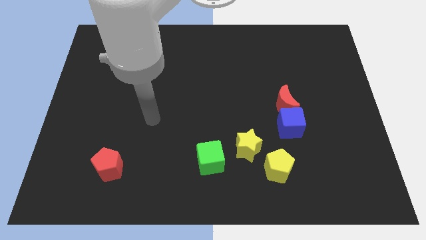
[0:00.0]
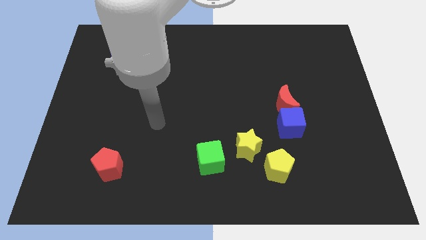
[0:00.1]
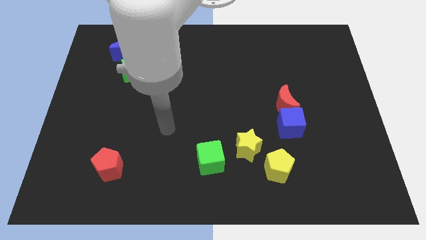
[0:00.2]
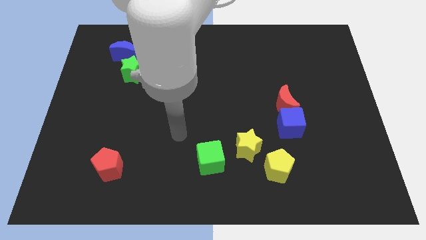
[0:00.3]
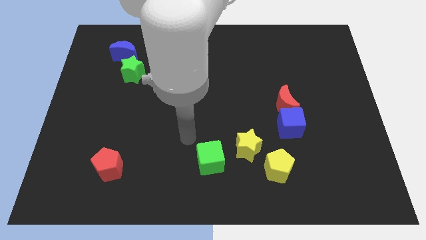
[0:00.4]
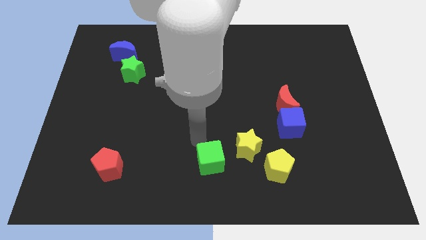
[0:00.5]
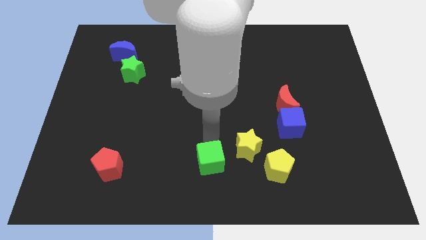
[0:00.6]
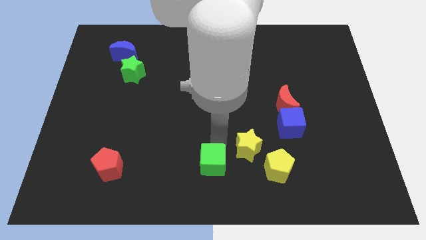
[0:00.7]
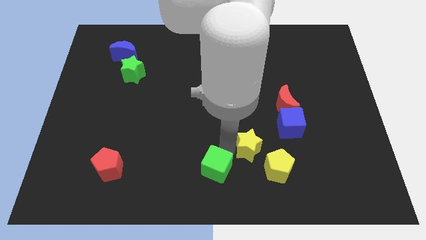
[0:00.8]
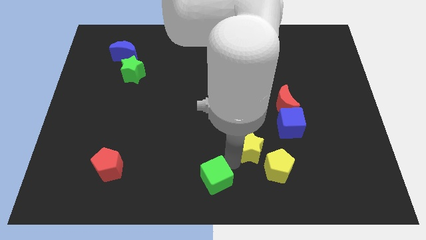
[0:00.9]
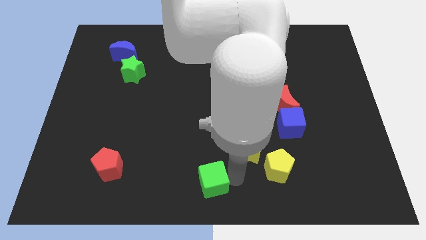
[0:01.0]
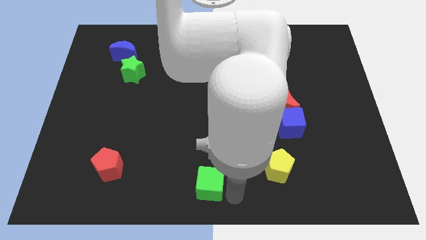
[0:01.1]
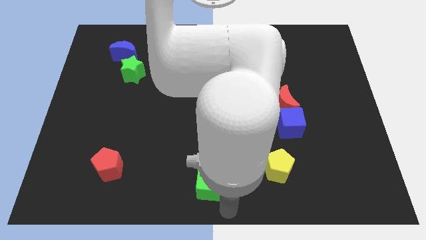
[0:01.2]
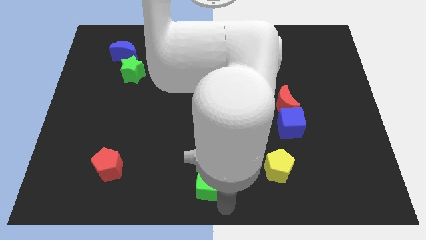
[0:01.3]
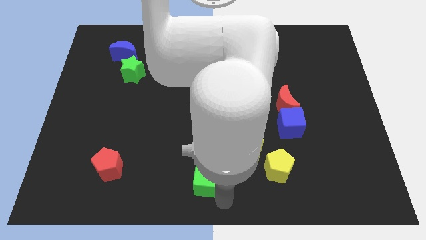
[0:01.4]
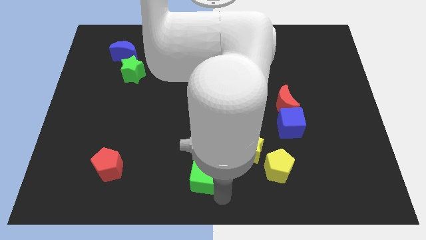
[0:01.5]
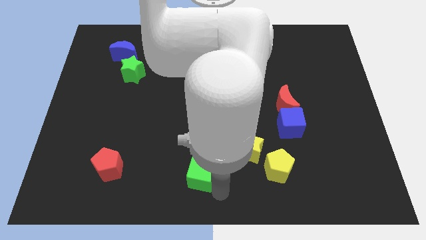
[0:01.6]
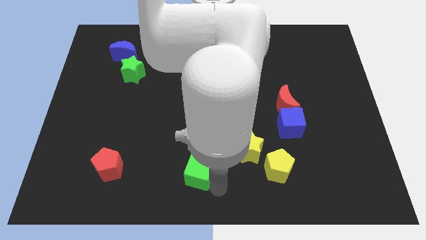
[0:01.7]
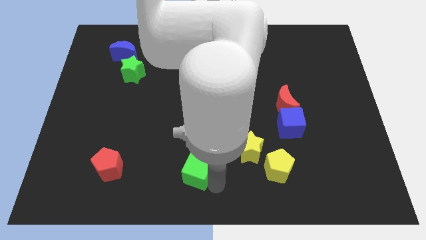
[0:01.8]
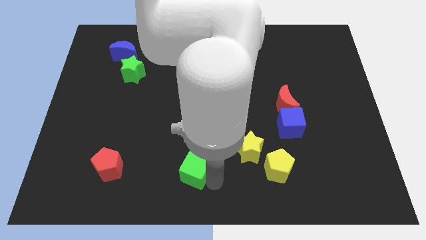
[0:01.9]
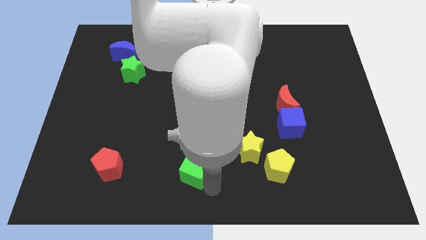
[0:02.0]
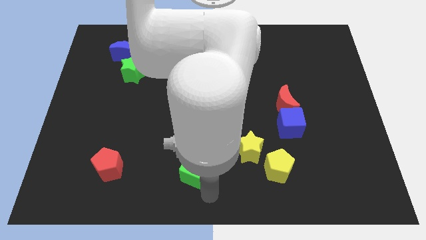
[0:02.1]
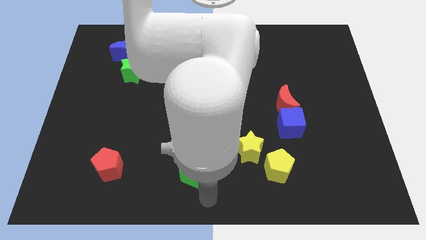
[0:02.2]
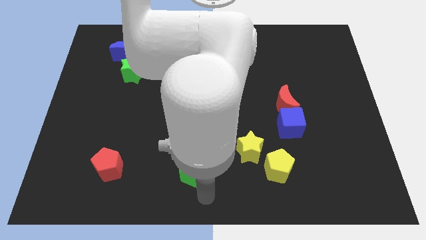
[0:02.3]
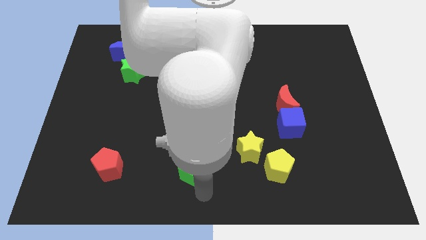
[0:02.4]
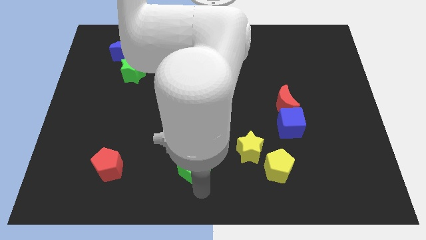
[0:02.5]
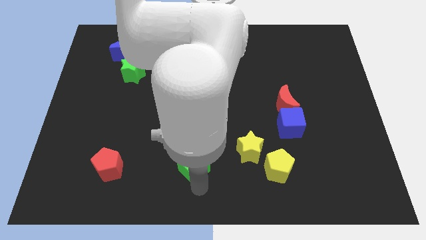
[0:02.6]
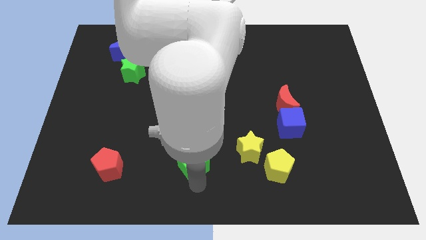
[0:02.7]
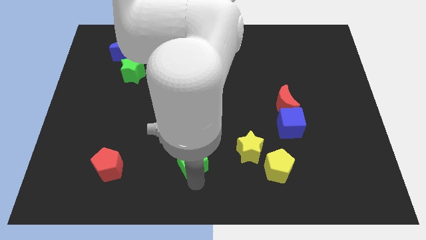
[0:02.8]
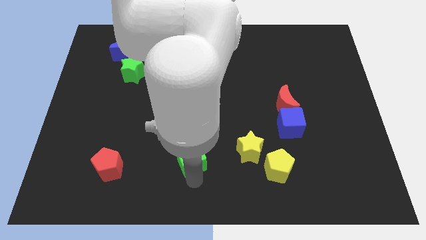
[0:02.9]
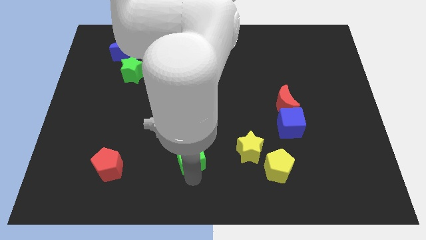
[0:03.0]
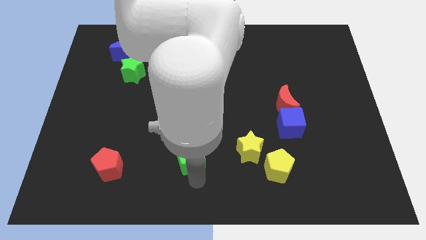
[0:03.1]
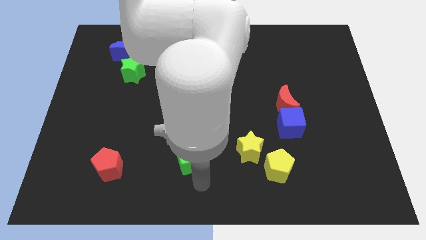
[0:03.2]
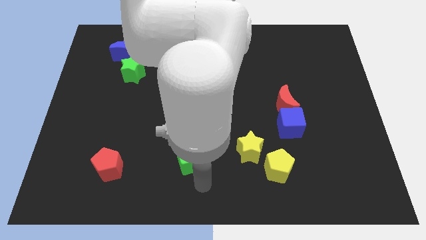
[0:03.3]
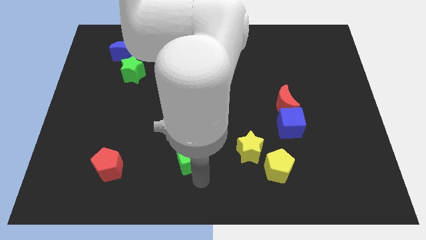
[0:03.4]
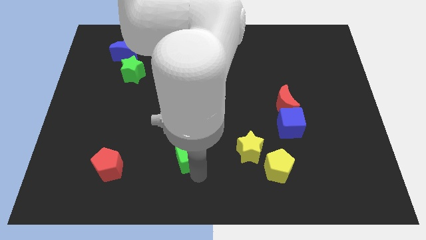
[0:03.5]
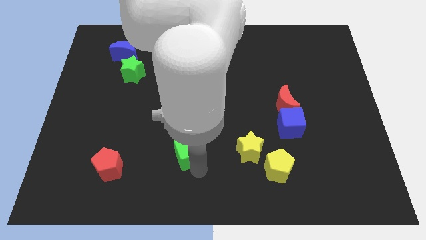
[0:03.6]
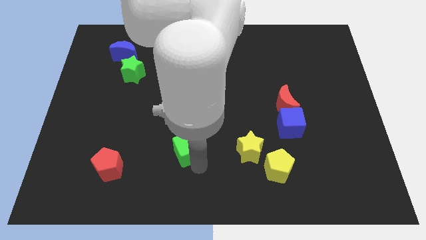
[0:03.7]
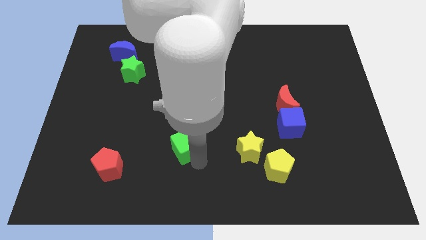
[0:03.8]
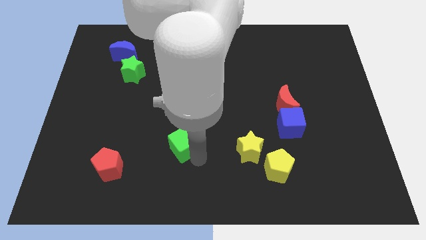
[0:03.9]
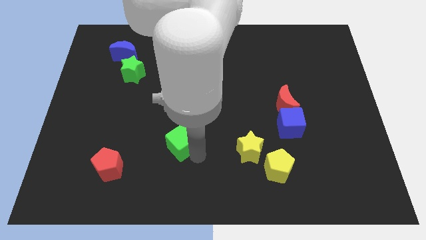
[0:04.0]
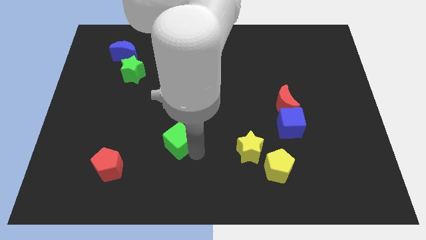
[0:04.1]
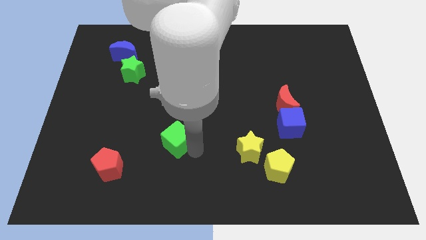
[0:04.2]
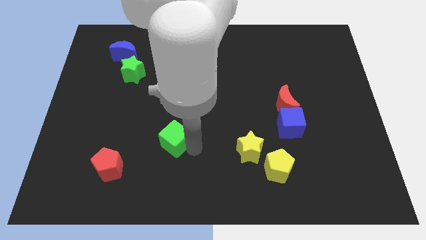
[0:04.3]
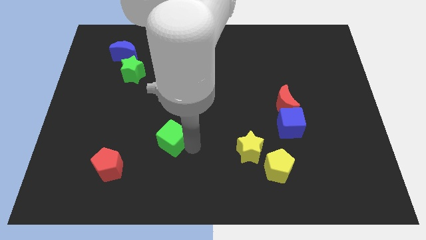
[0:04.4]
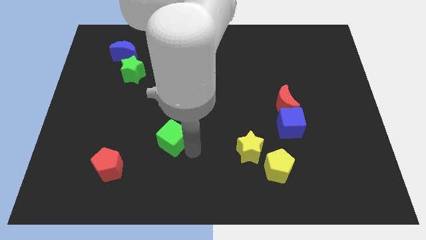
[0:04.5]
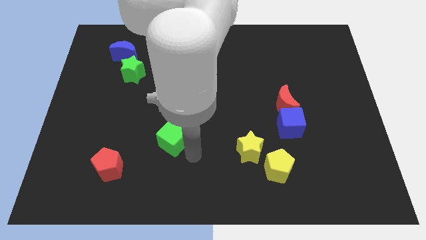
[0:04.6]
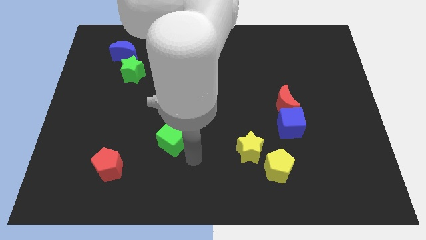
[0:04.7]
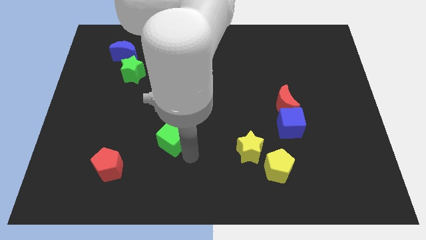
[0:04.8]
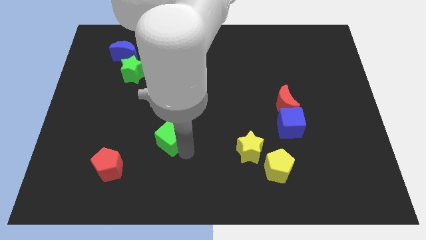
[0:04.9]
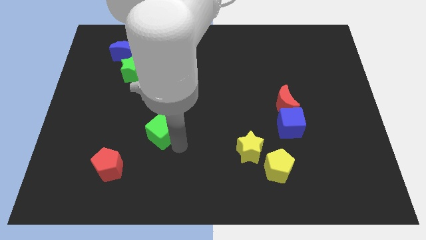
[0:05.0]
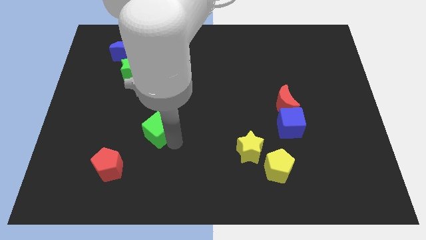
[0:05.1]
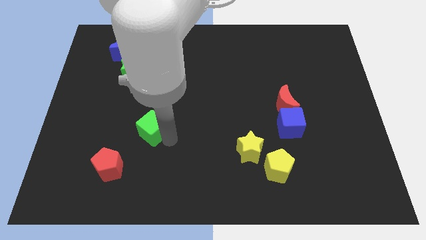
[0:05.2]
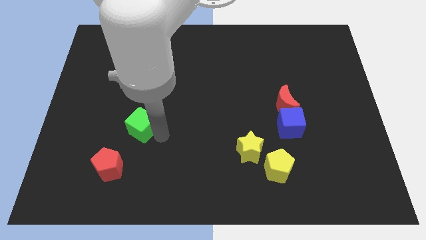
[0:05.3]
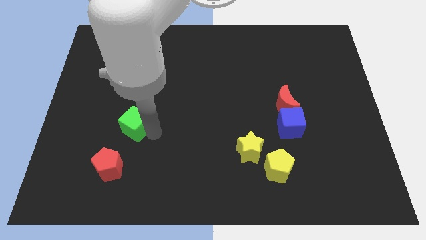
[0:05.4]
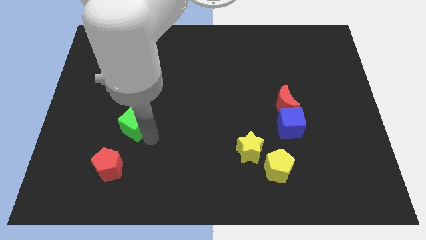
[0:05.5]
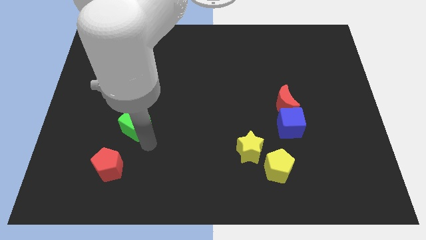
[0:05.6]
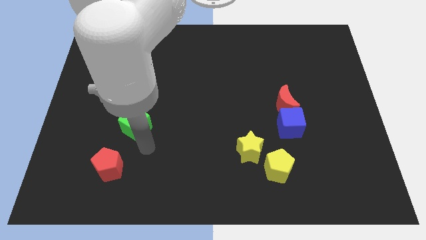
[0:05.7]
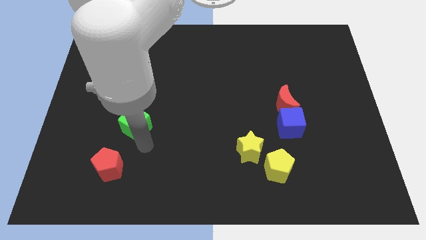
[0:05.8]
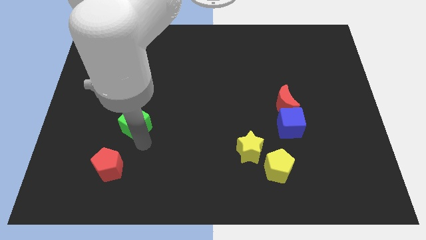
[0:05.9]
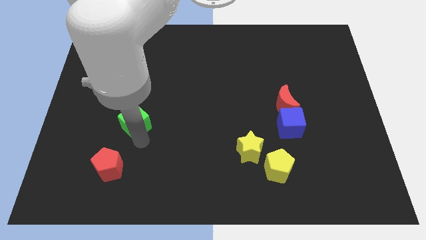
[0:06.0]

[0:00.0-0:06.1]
move the green cube below the green star

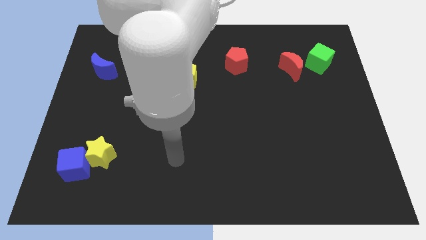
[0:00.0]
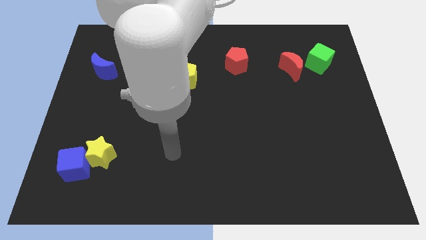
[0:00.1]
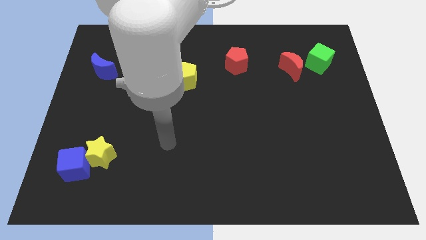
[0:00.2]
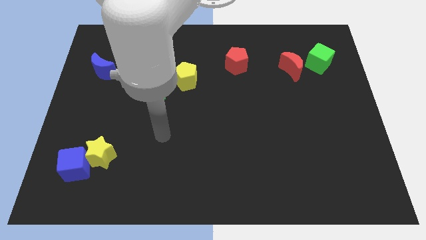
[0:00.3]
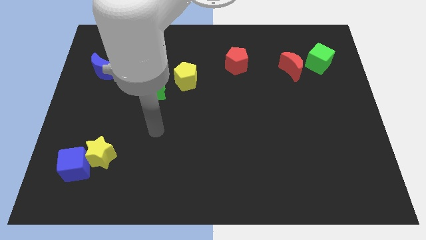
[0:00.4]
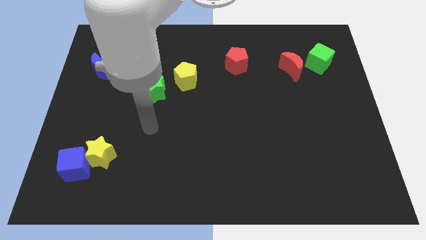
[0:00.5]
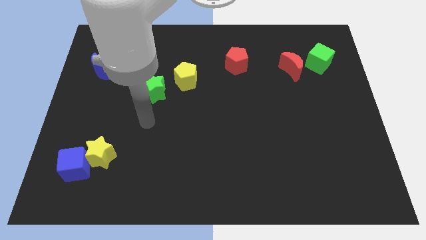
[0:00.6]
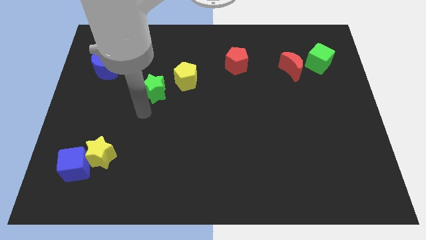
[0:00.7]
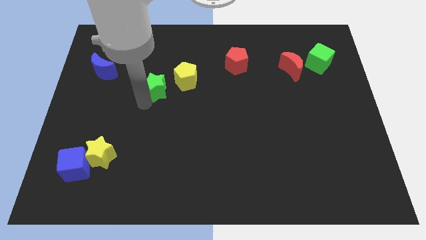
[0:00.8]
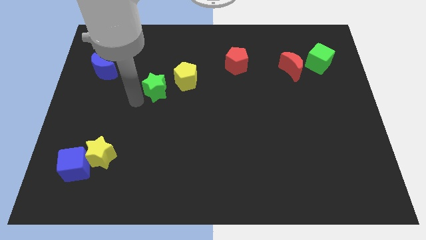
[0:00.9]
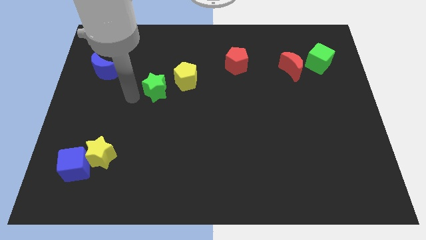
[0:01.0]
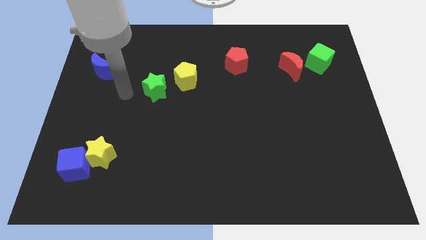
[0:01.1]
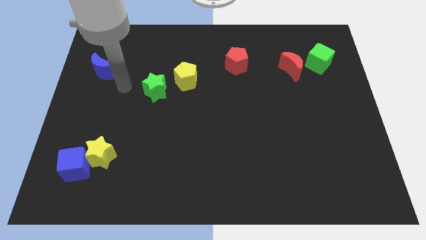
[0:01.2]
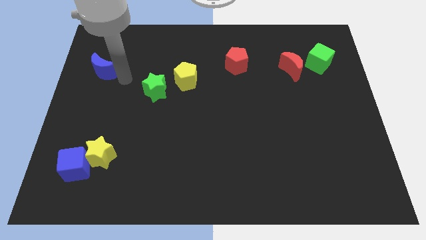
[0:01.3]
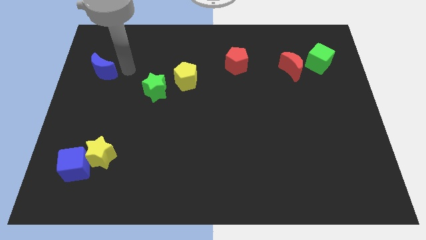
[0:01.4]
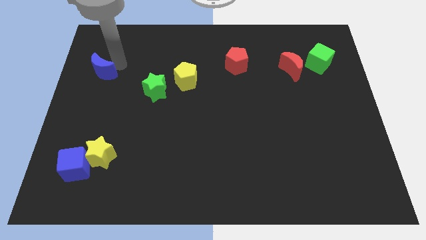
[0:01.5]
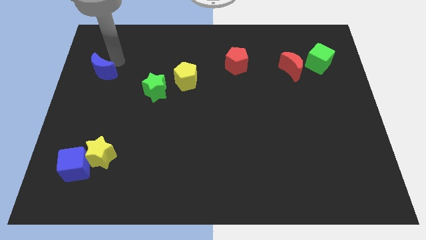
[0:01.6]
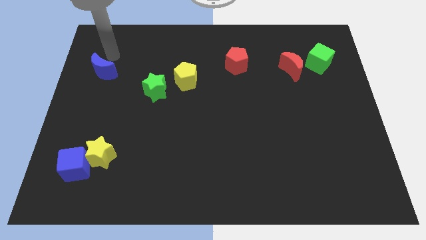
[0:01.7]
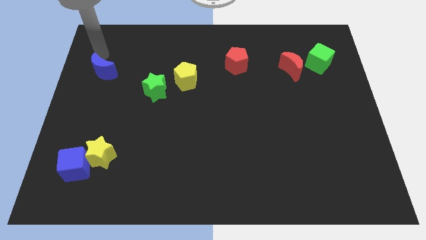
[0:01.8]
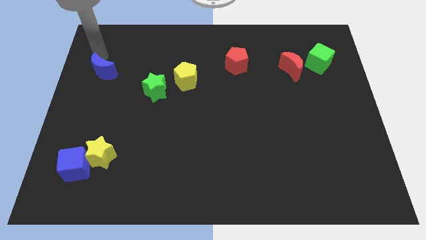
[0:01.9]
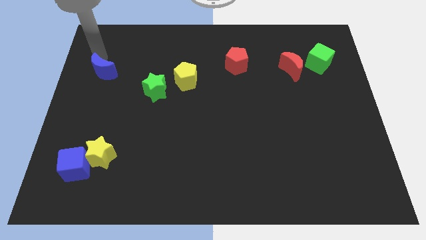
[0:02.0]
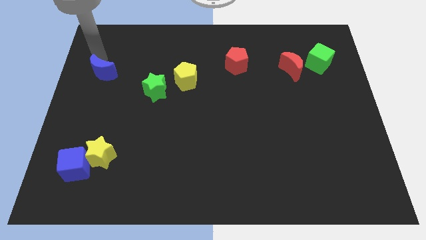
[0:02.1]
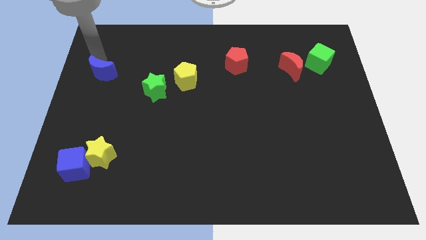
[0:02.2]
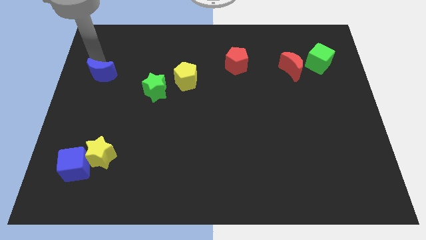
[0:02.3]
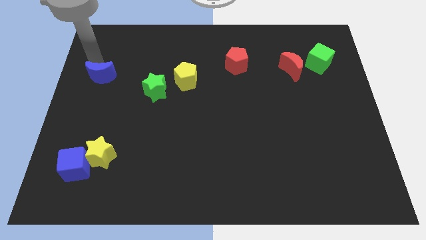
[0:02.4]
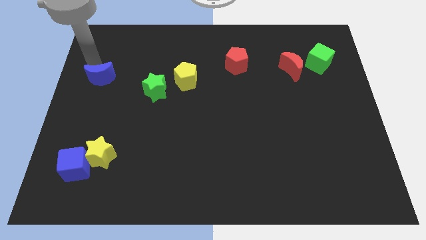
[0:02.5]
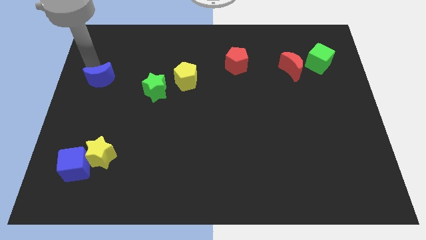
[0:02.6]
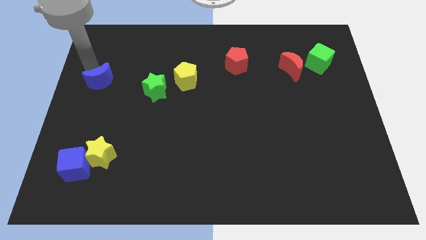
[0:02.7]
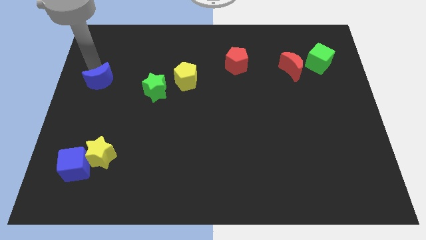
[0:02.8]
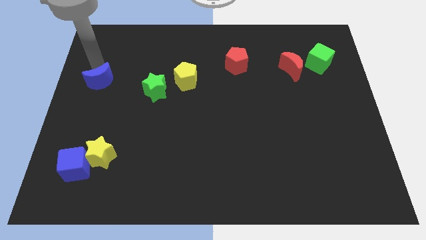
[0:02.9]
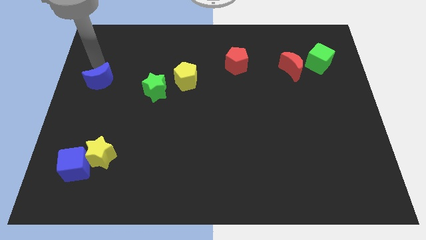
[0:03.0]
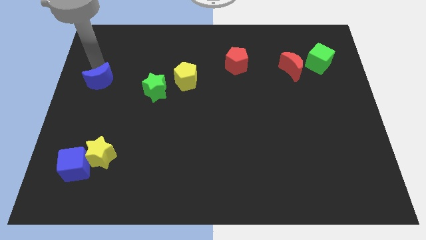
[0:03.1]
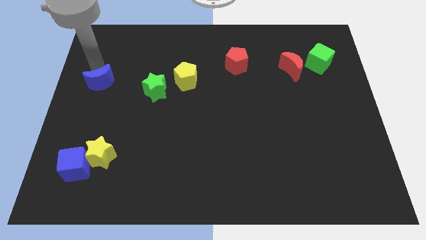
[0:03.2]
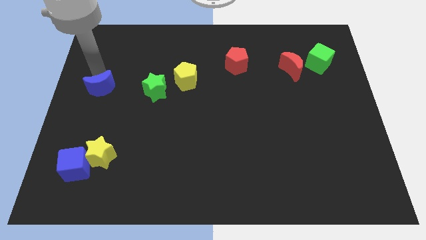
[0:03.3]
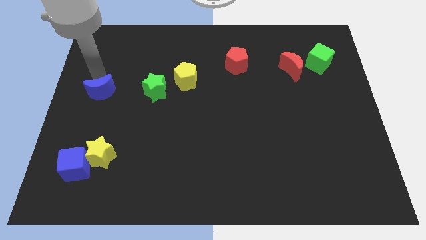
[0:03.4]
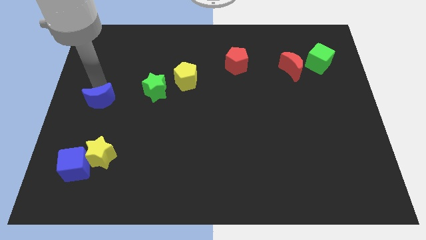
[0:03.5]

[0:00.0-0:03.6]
push the blue moon to the top side of the yellow star
